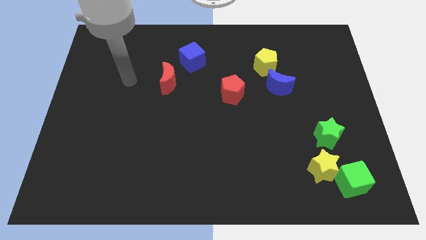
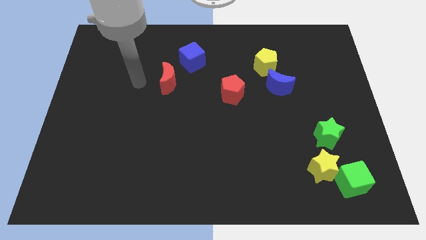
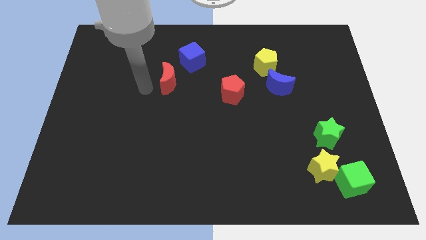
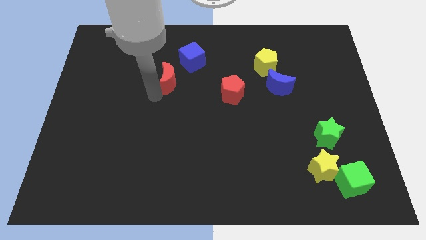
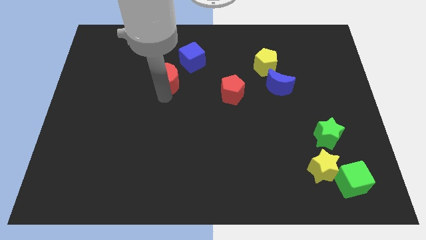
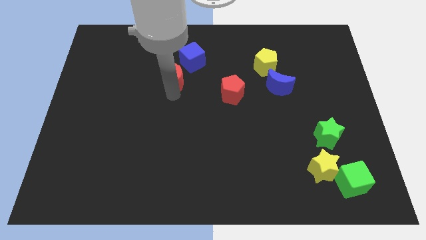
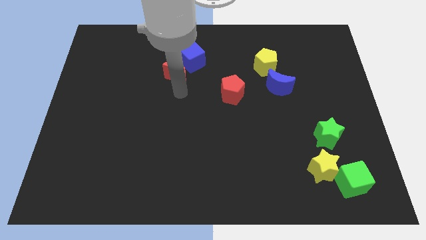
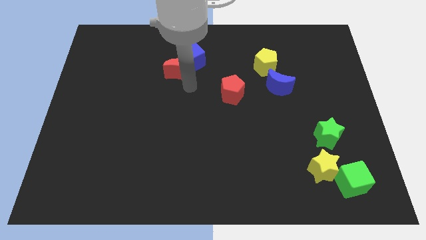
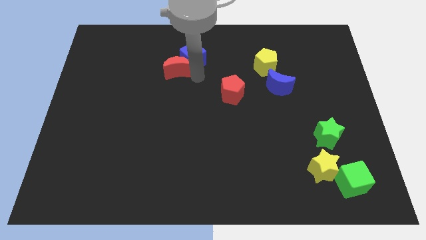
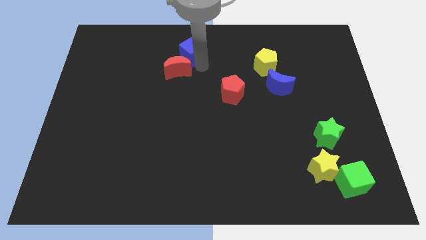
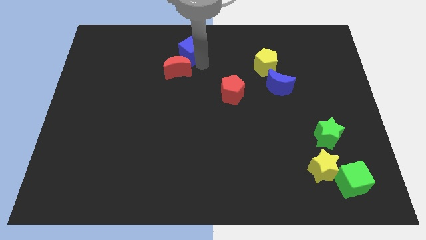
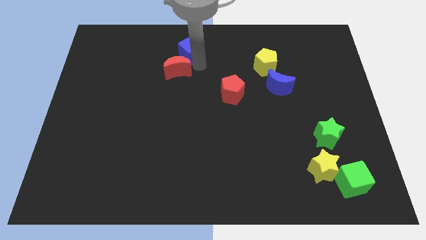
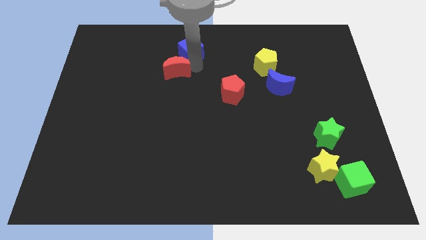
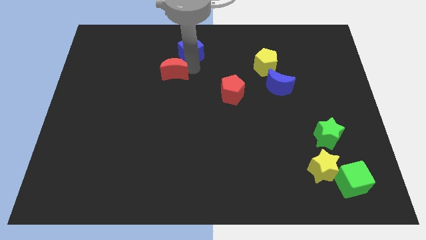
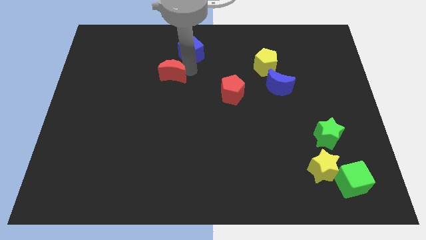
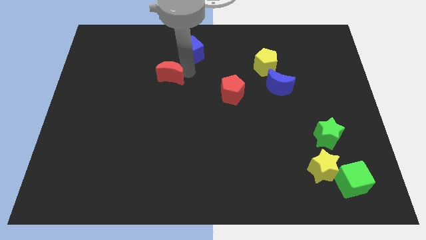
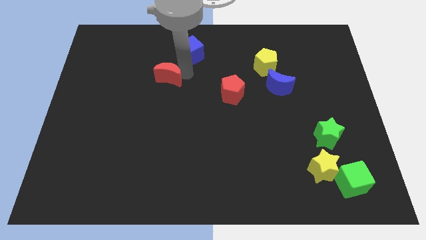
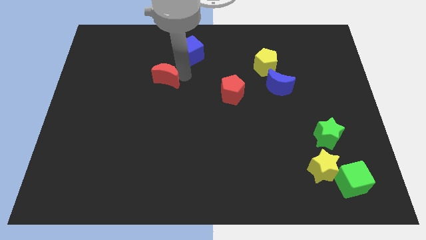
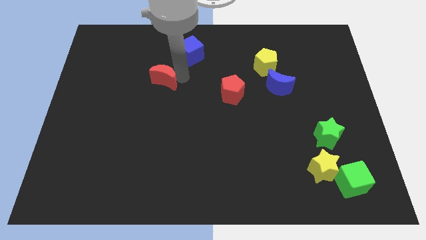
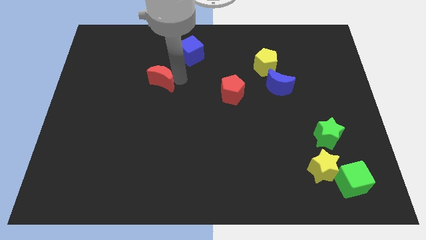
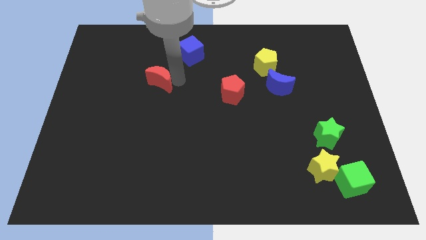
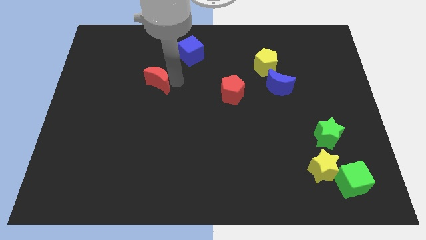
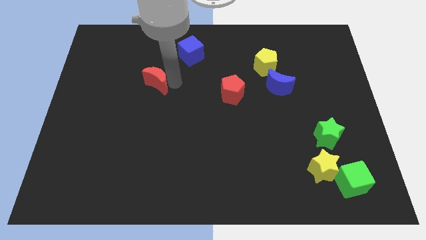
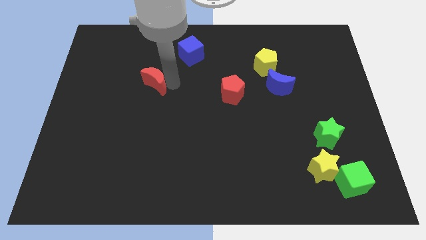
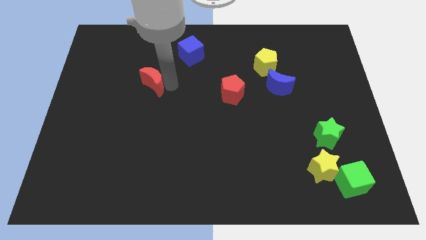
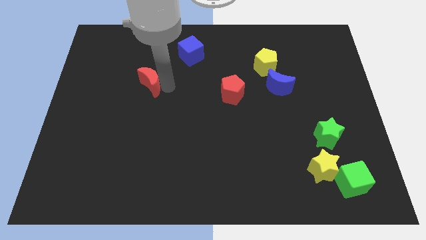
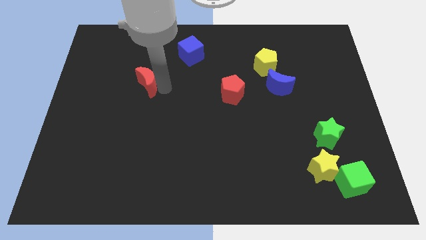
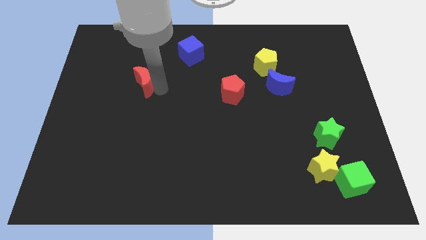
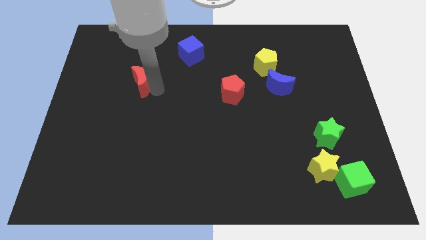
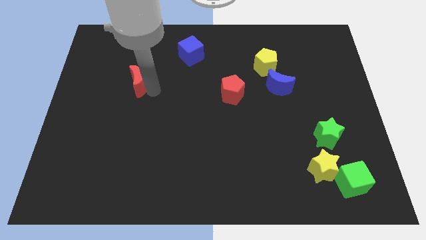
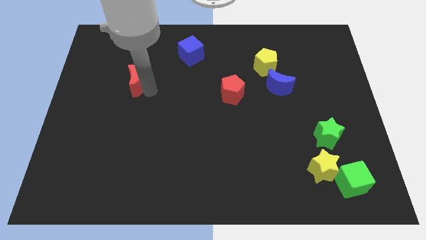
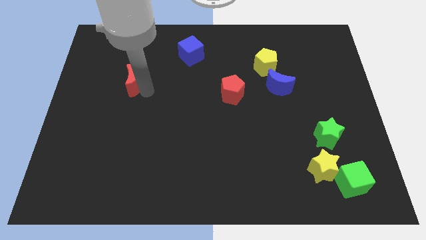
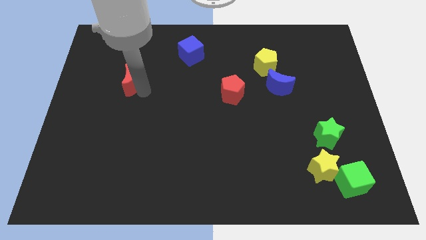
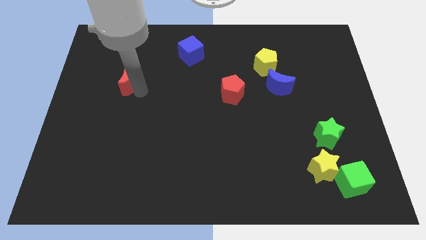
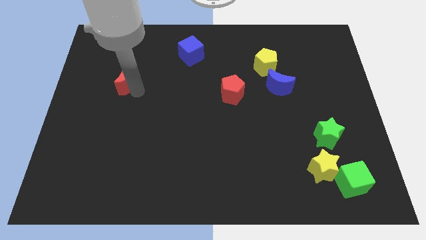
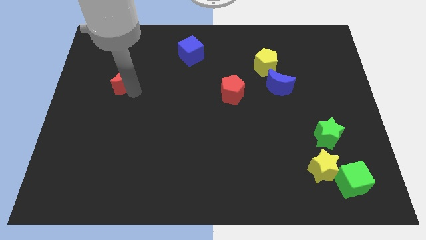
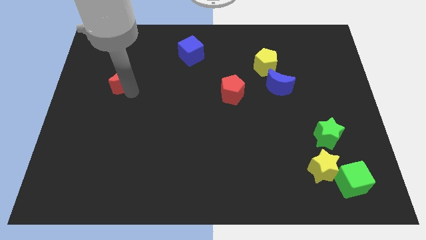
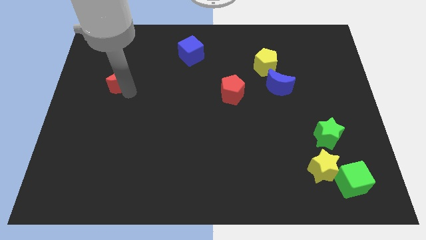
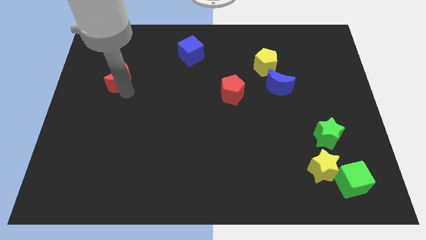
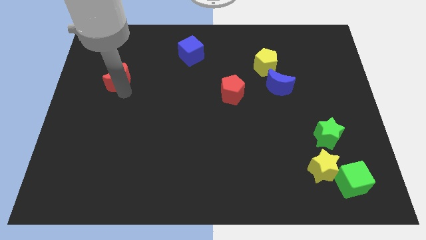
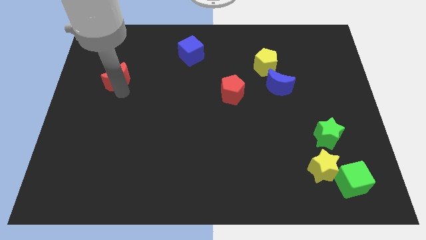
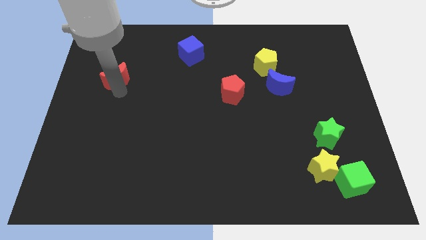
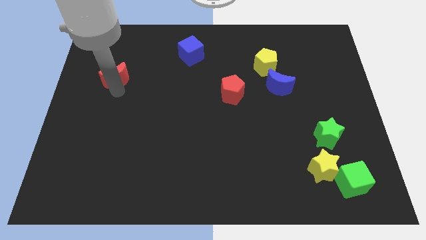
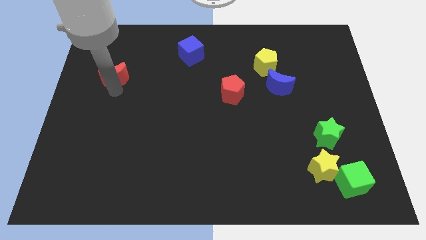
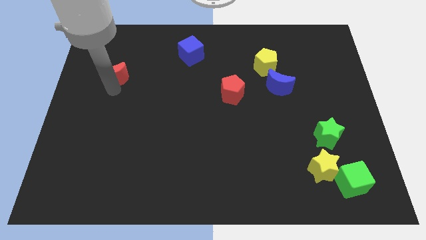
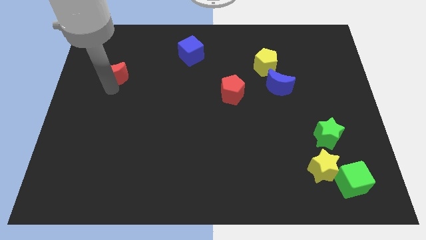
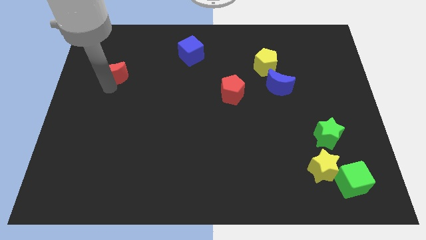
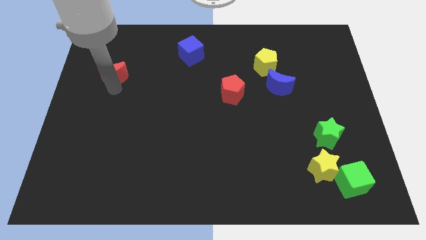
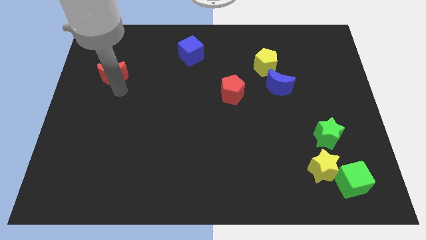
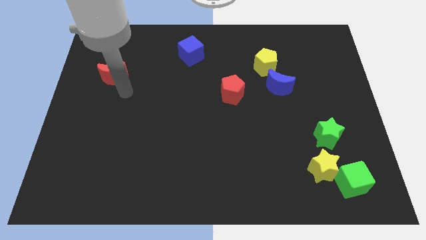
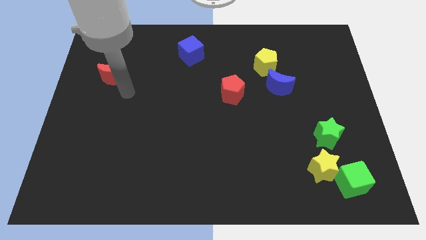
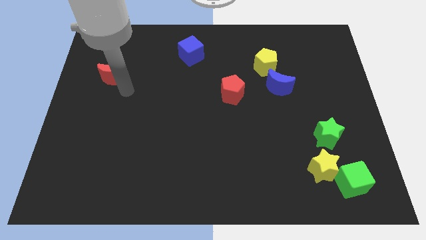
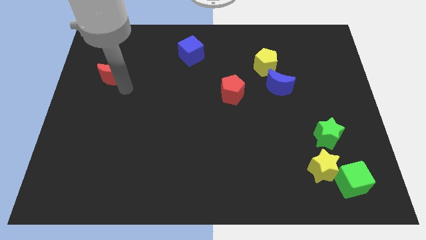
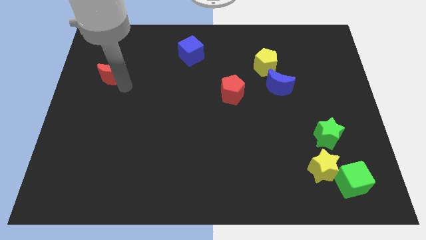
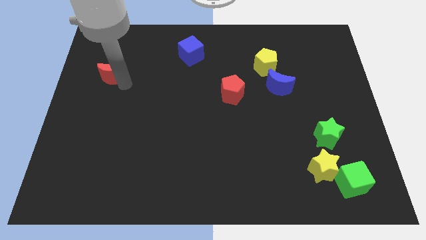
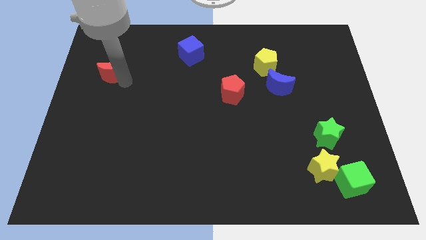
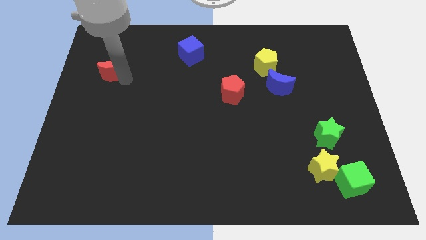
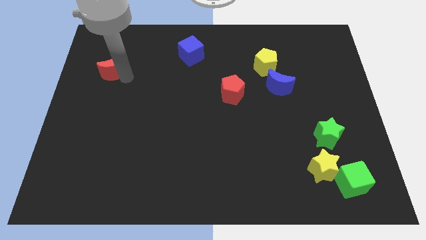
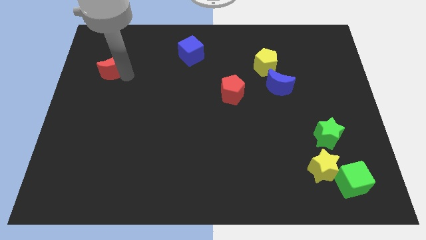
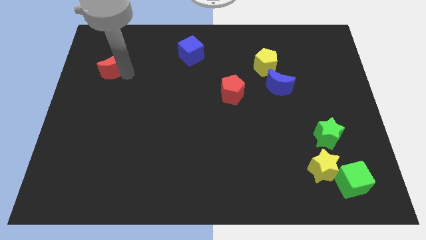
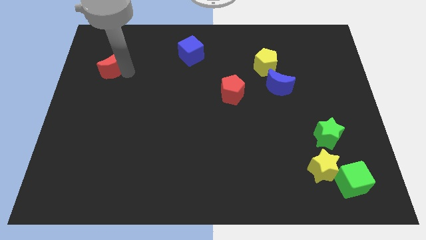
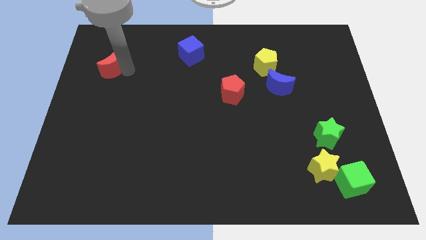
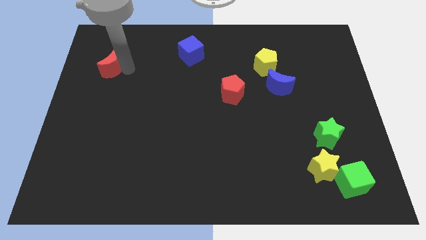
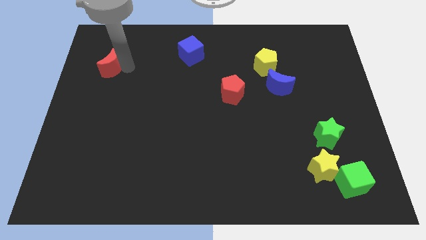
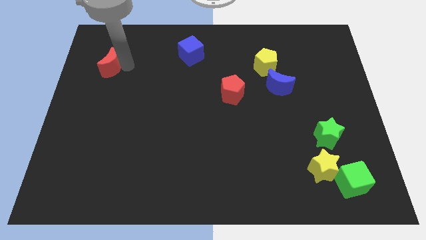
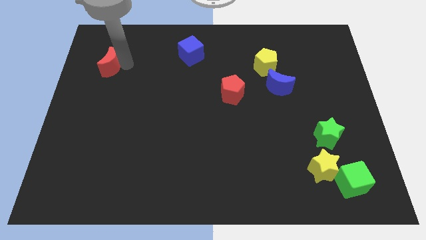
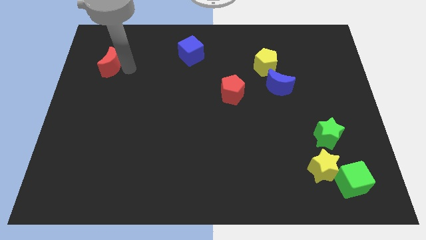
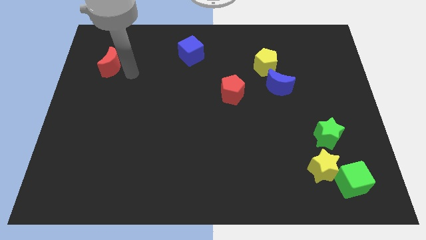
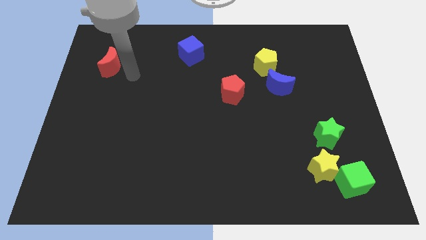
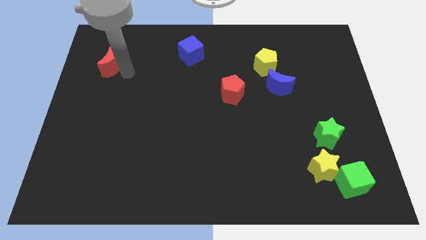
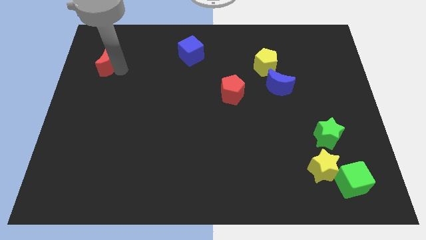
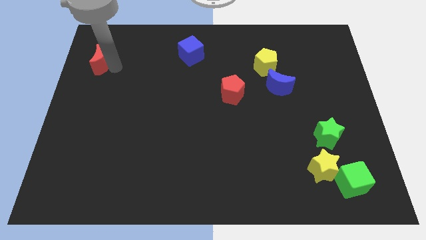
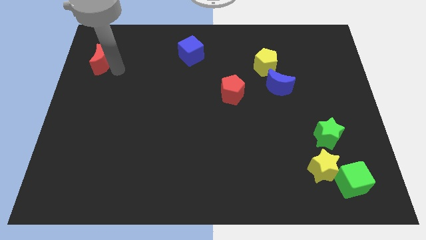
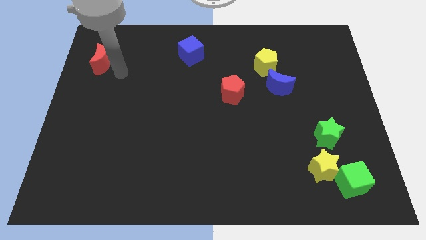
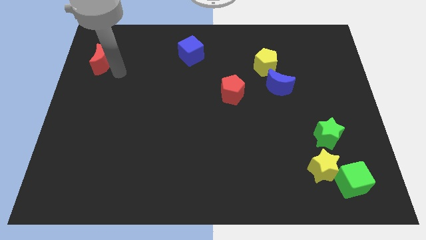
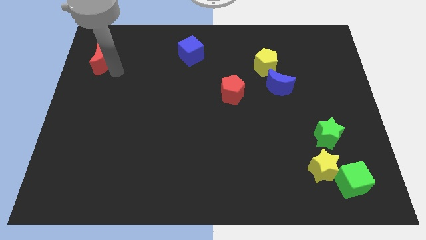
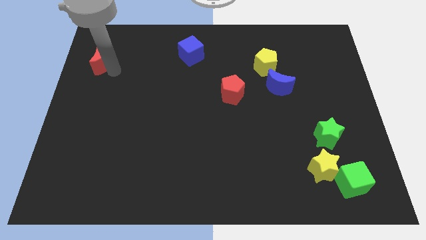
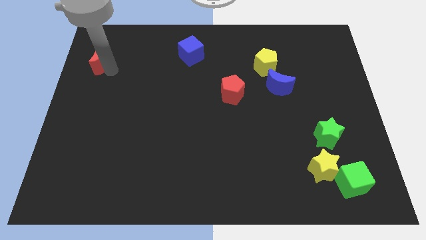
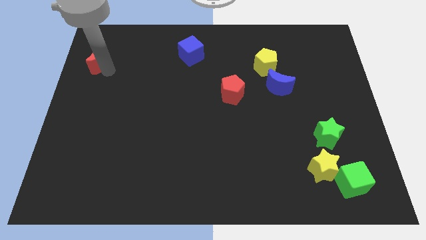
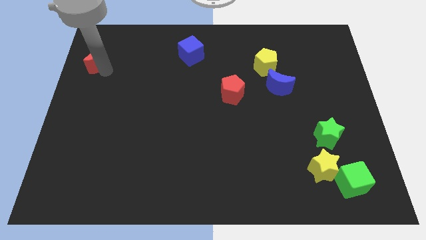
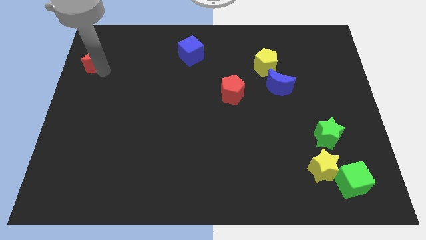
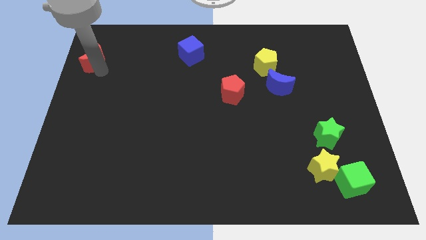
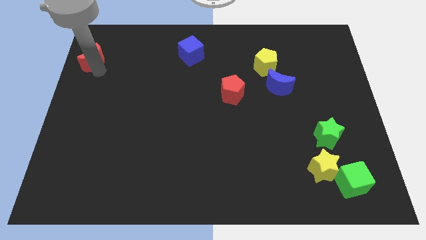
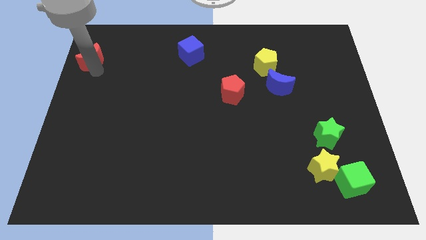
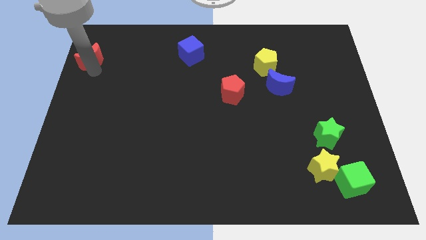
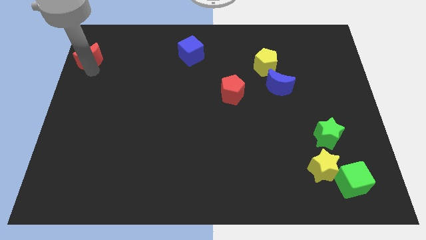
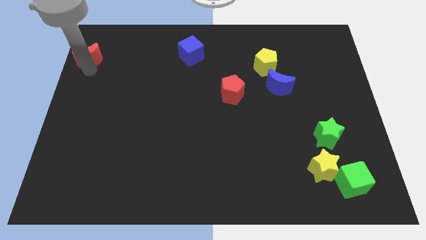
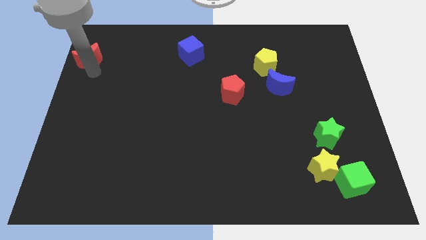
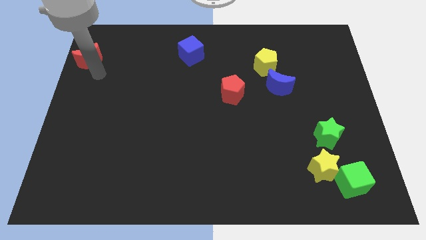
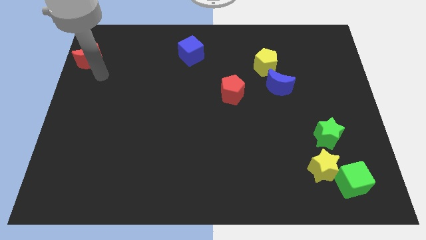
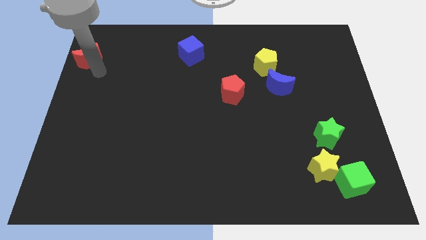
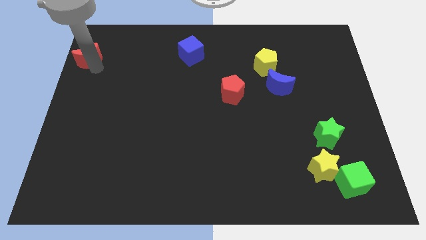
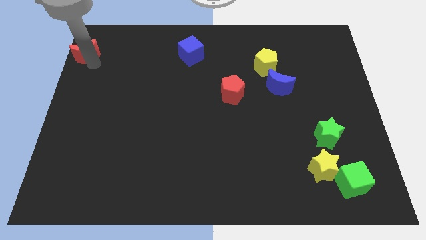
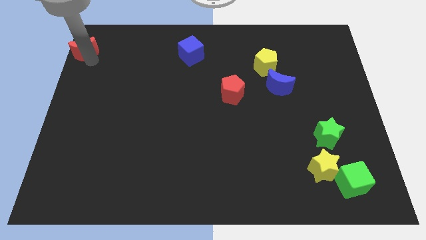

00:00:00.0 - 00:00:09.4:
slide the red moon to the top left corner
